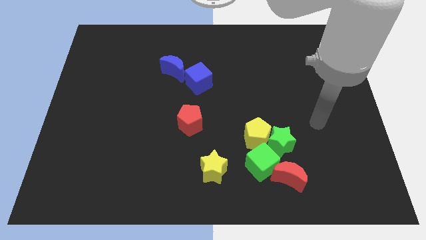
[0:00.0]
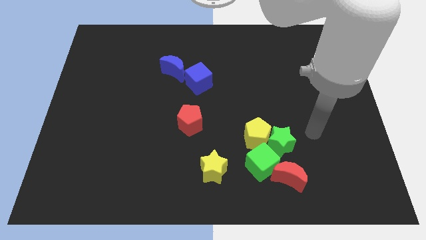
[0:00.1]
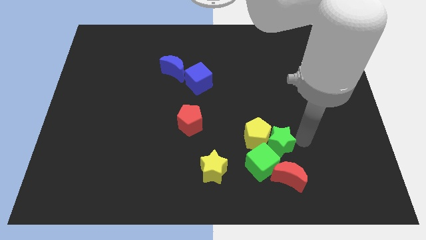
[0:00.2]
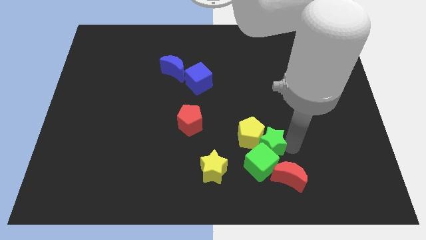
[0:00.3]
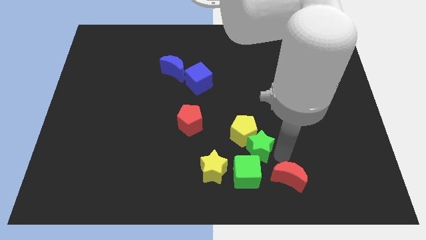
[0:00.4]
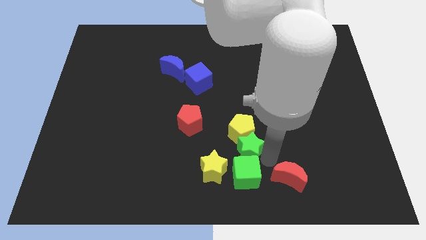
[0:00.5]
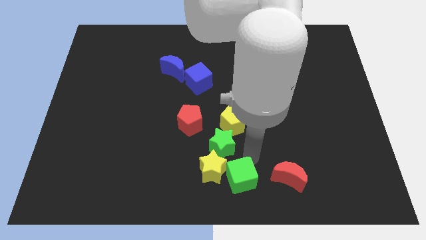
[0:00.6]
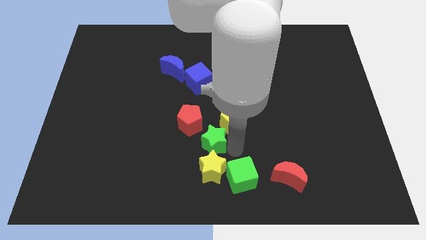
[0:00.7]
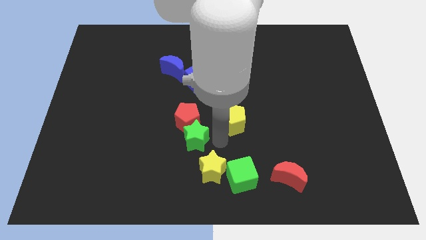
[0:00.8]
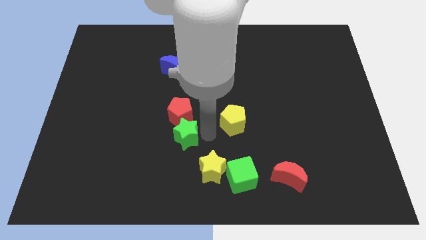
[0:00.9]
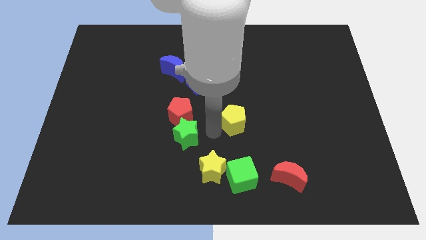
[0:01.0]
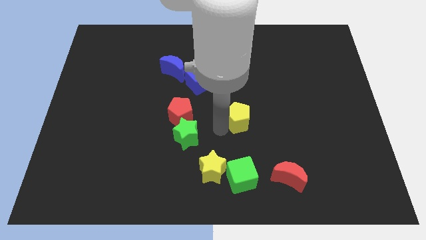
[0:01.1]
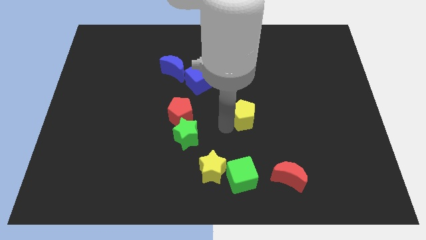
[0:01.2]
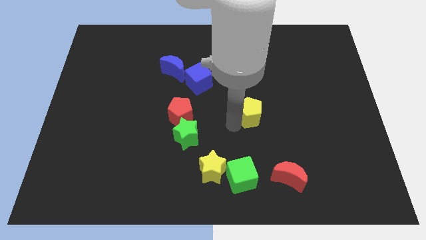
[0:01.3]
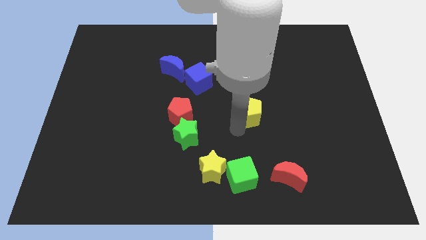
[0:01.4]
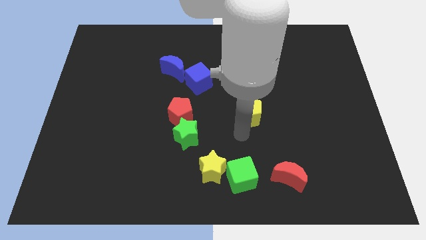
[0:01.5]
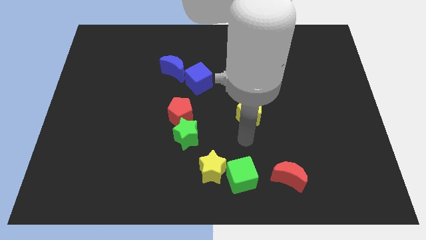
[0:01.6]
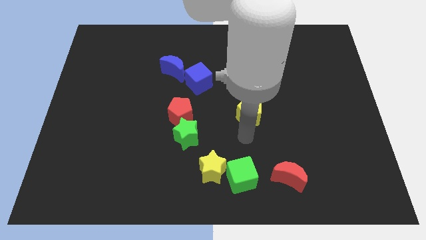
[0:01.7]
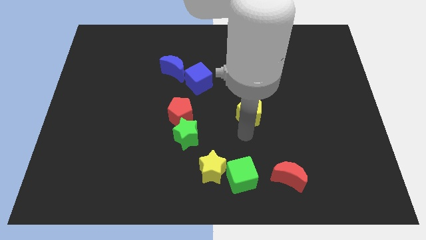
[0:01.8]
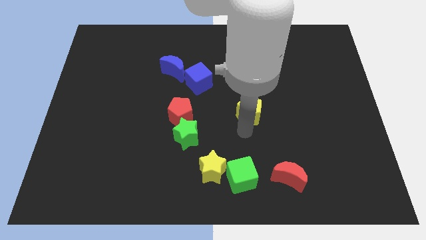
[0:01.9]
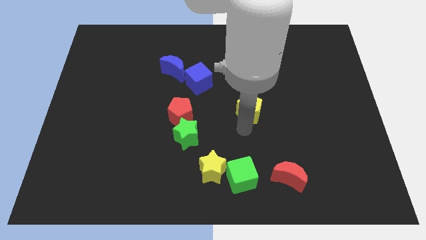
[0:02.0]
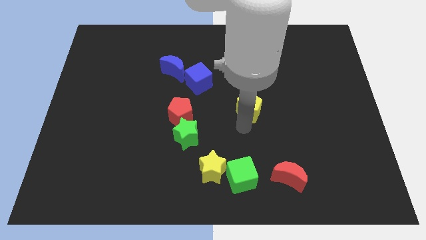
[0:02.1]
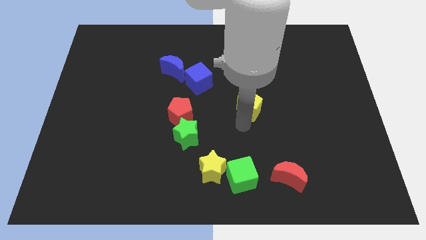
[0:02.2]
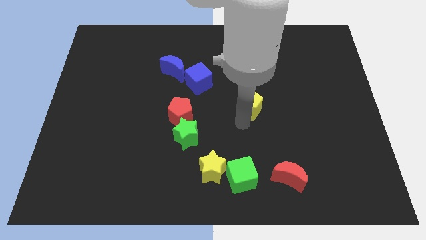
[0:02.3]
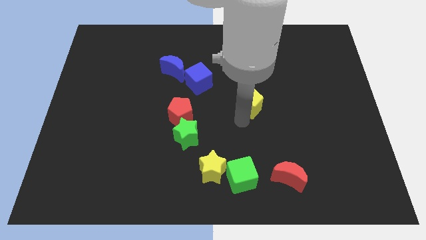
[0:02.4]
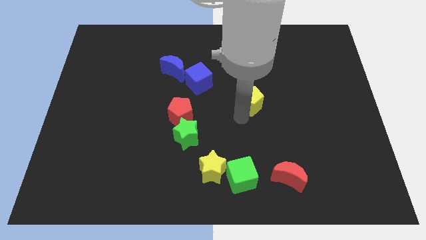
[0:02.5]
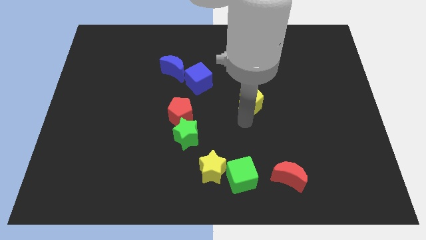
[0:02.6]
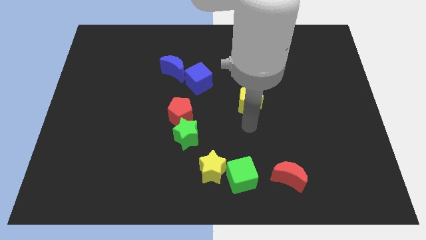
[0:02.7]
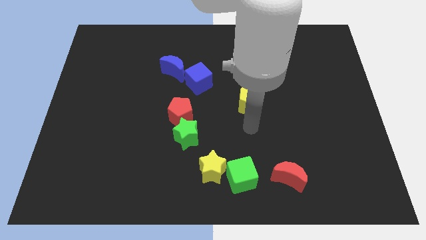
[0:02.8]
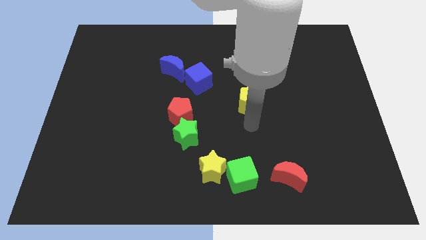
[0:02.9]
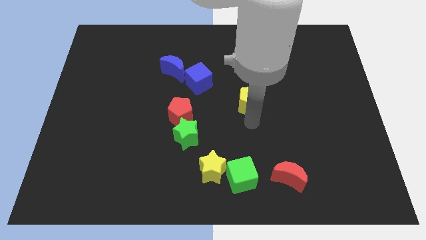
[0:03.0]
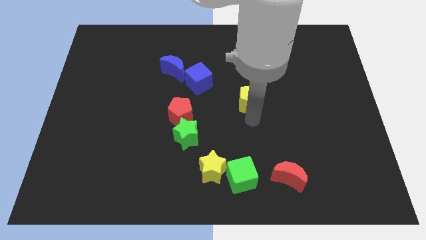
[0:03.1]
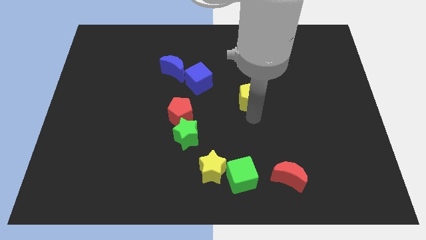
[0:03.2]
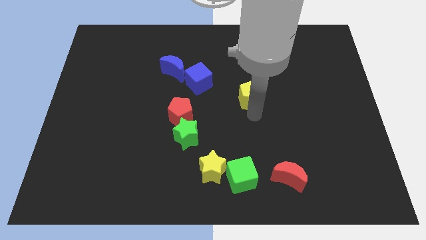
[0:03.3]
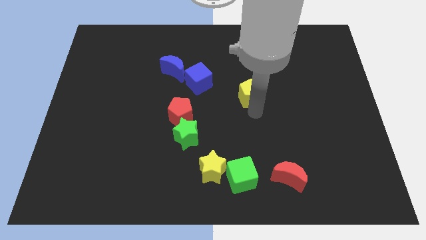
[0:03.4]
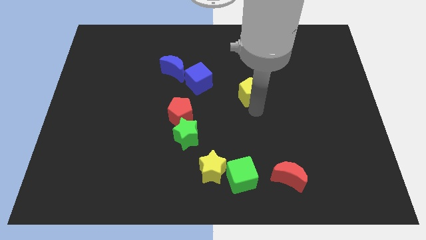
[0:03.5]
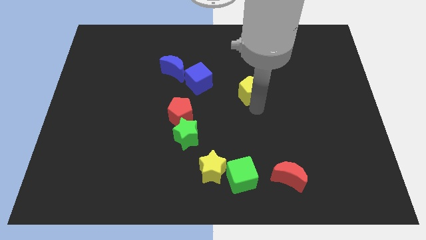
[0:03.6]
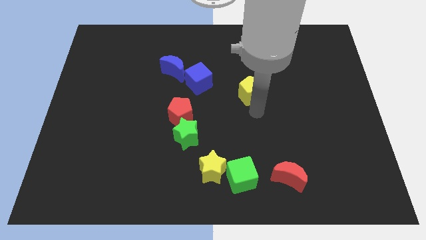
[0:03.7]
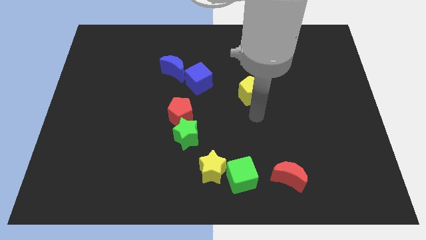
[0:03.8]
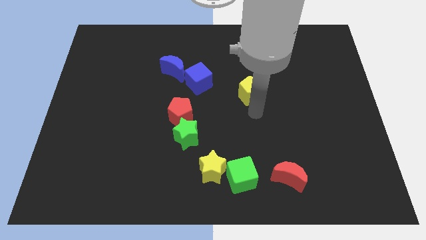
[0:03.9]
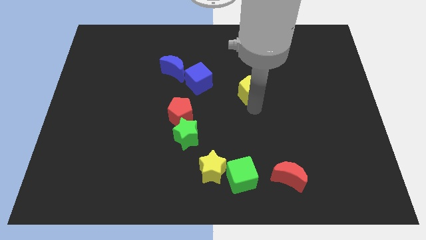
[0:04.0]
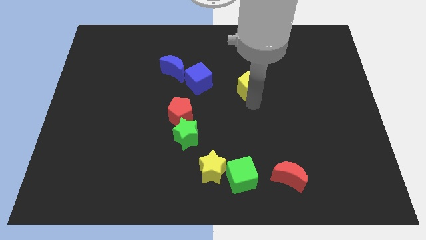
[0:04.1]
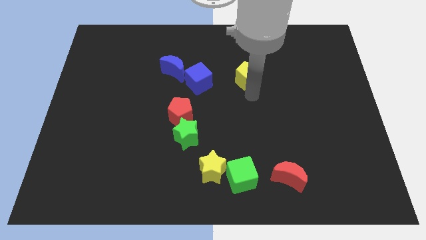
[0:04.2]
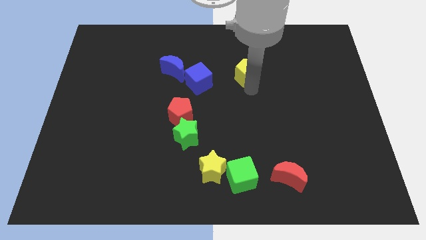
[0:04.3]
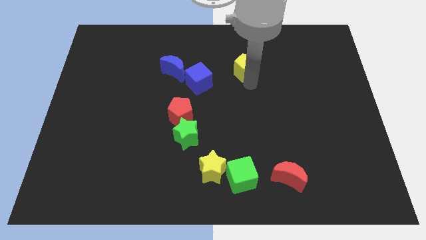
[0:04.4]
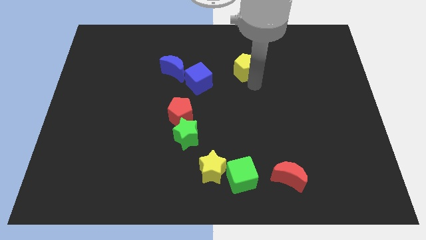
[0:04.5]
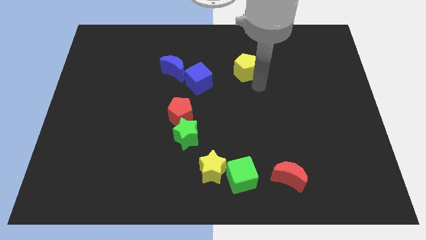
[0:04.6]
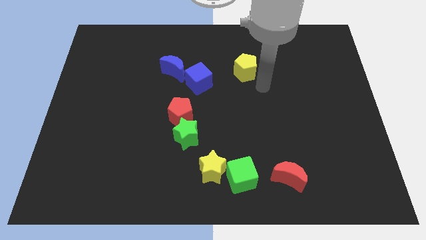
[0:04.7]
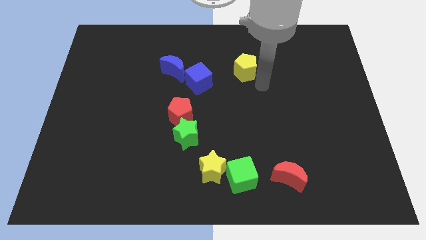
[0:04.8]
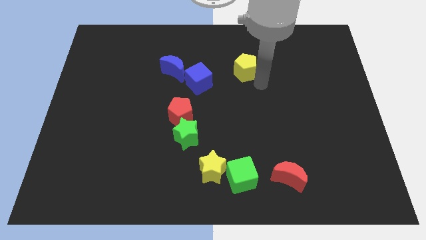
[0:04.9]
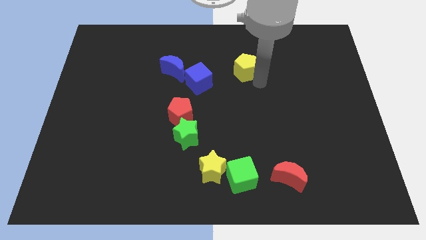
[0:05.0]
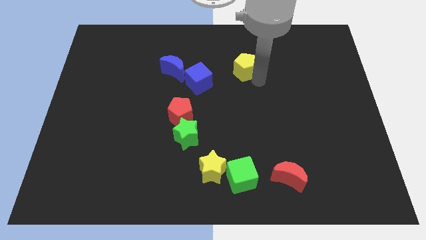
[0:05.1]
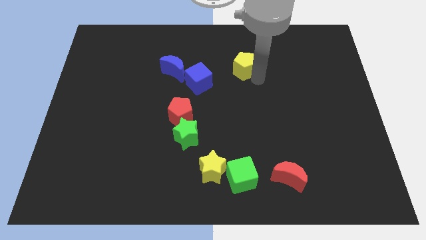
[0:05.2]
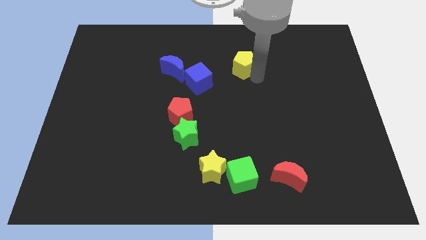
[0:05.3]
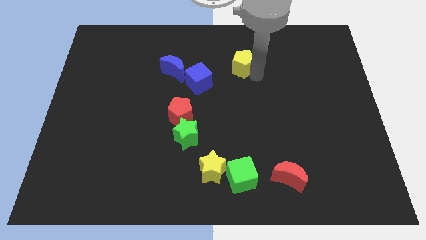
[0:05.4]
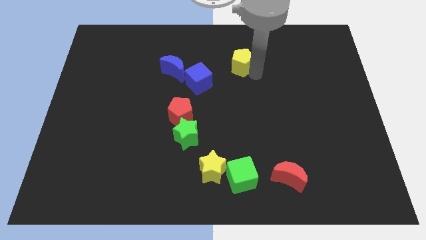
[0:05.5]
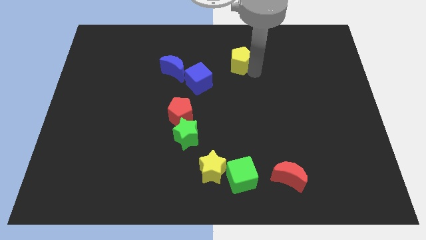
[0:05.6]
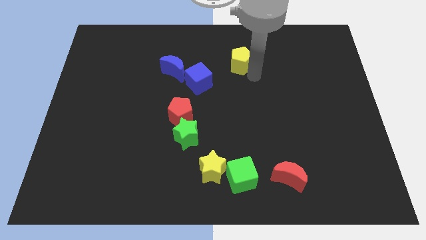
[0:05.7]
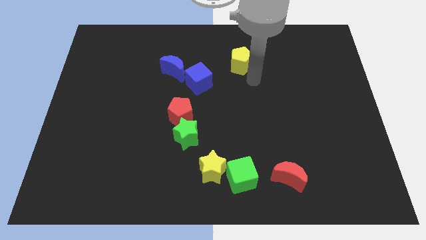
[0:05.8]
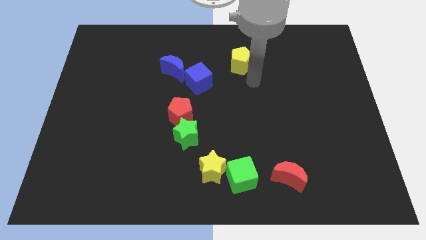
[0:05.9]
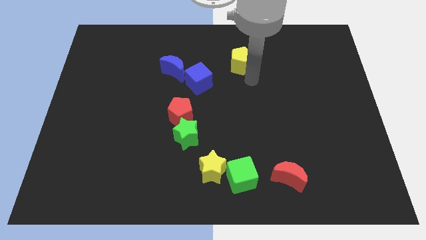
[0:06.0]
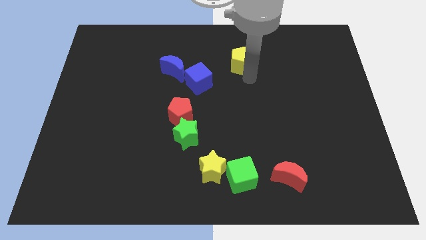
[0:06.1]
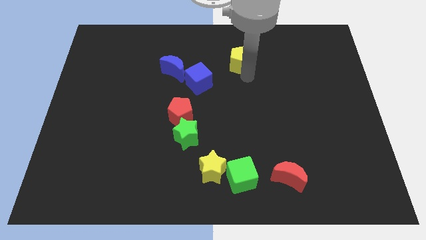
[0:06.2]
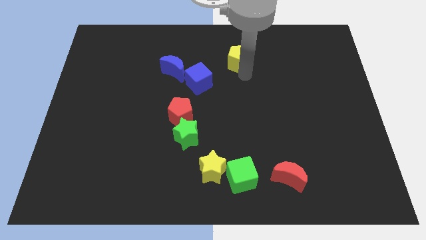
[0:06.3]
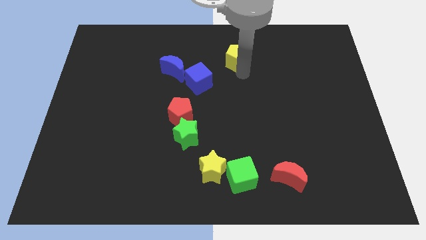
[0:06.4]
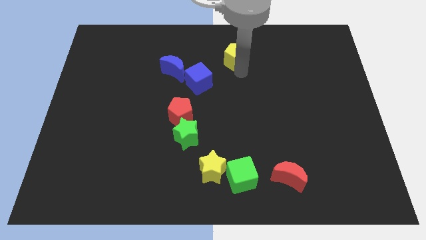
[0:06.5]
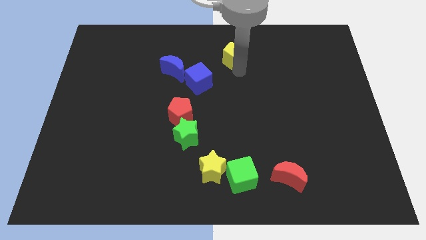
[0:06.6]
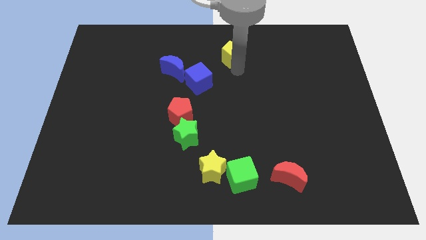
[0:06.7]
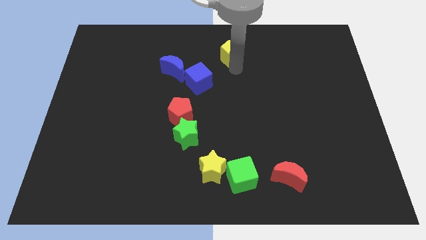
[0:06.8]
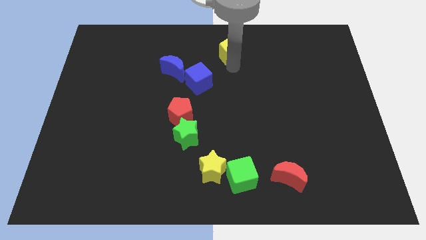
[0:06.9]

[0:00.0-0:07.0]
put the yellow pentagon to the towards your base
